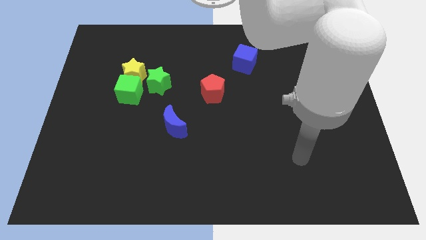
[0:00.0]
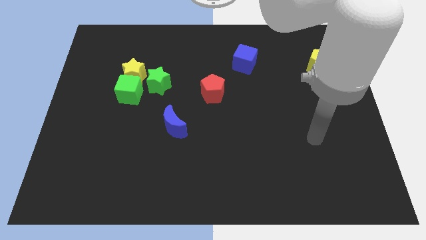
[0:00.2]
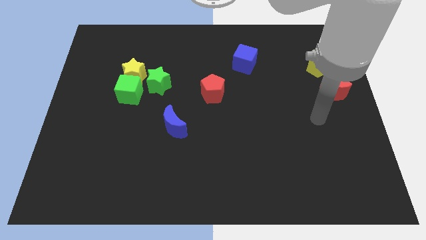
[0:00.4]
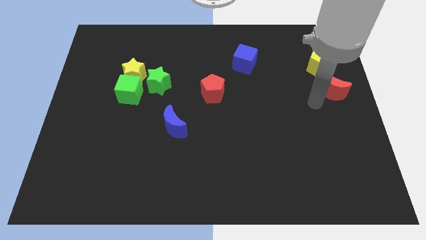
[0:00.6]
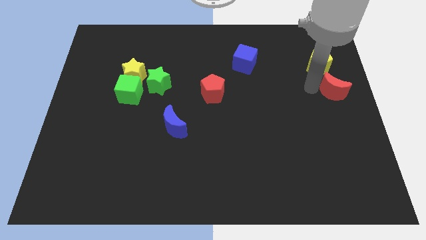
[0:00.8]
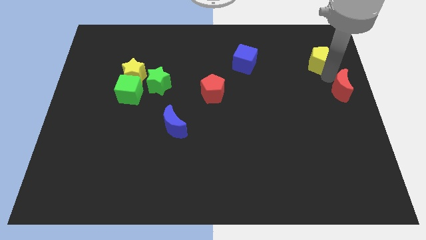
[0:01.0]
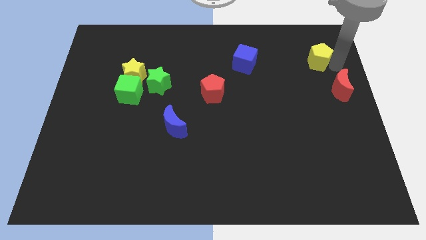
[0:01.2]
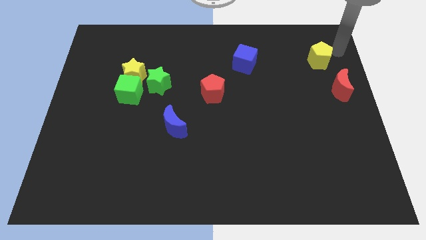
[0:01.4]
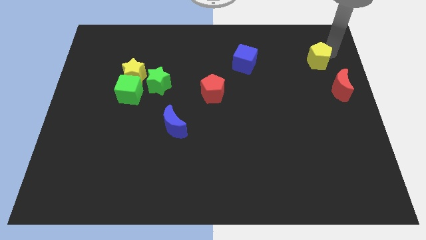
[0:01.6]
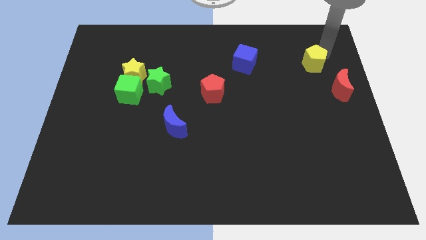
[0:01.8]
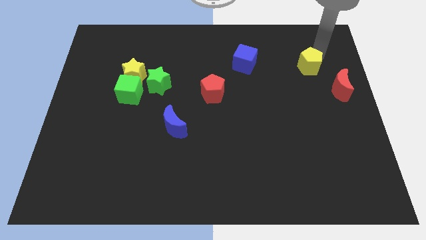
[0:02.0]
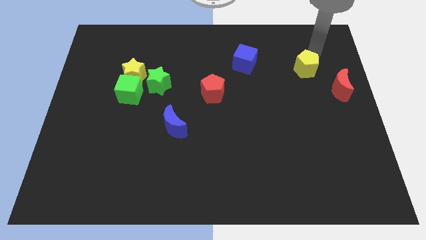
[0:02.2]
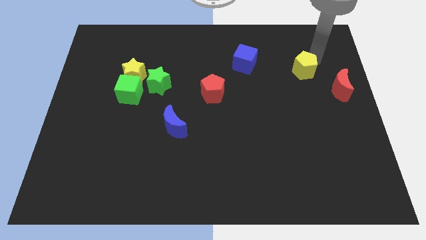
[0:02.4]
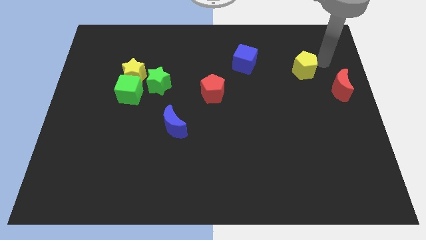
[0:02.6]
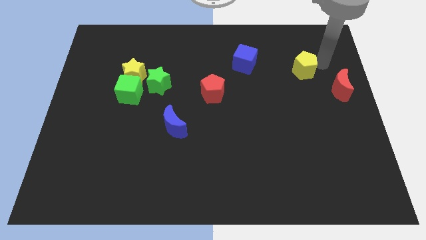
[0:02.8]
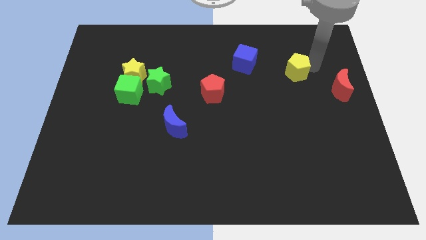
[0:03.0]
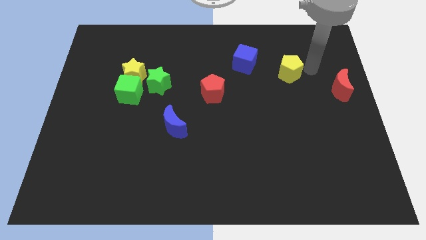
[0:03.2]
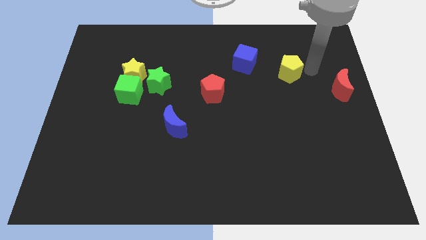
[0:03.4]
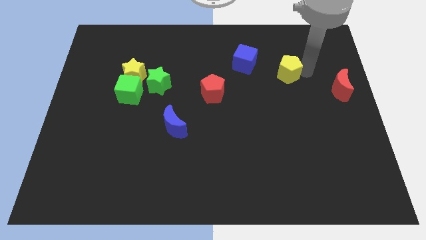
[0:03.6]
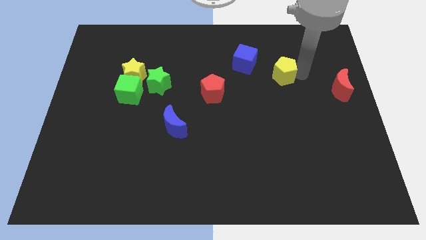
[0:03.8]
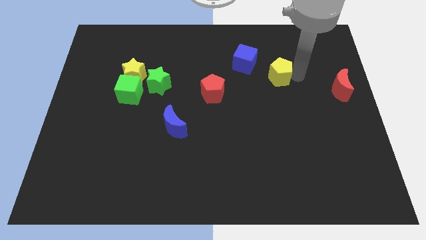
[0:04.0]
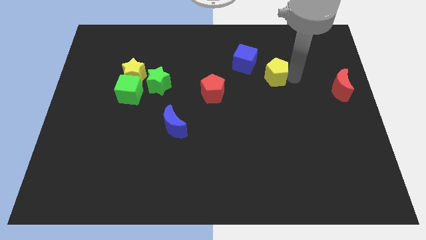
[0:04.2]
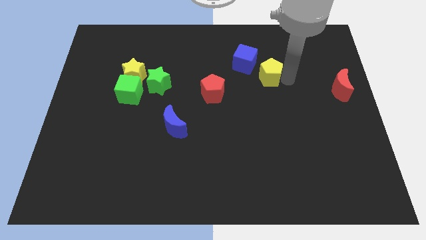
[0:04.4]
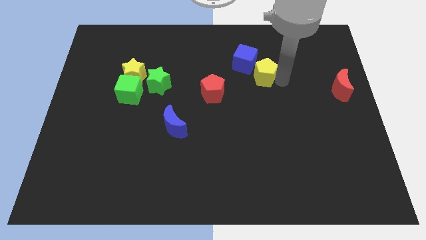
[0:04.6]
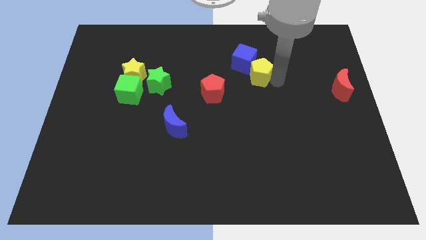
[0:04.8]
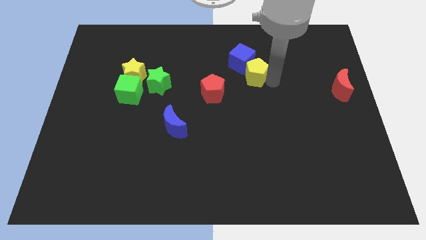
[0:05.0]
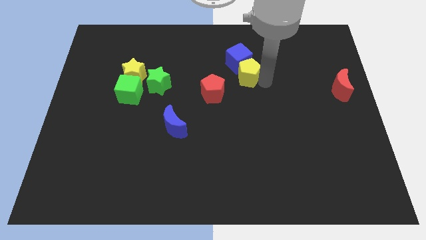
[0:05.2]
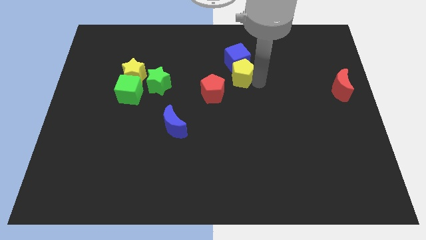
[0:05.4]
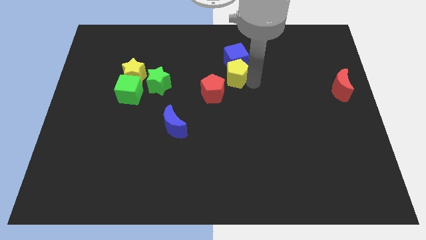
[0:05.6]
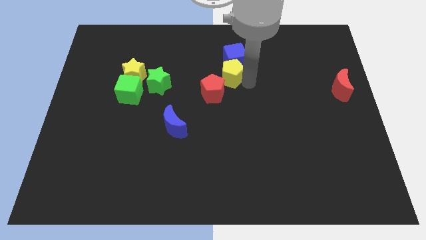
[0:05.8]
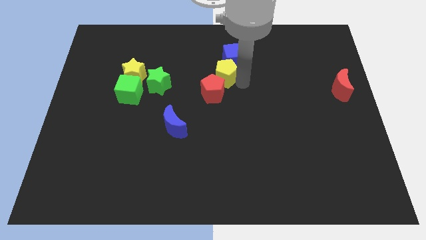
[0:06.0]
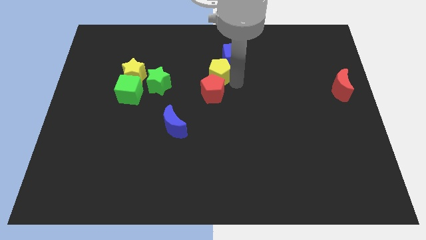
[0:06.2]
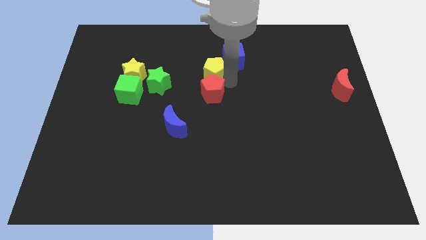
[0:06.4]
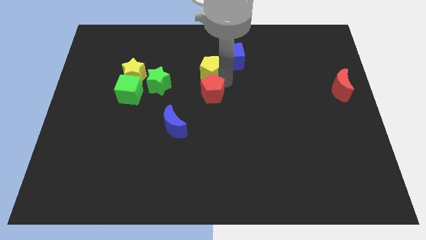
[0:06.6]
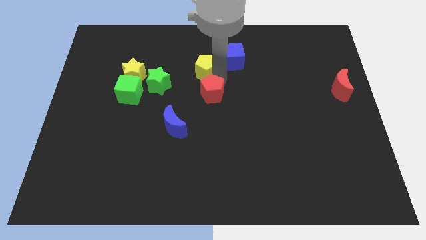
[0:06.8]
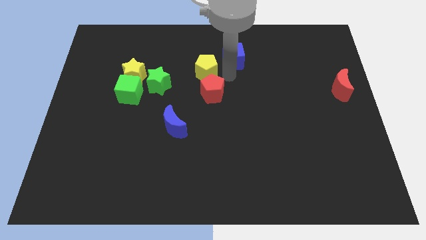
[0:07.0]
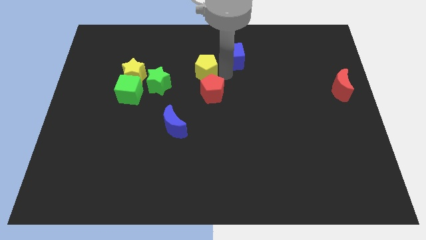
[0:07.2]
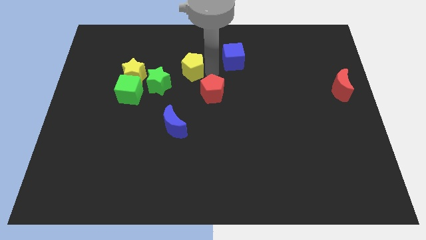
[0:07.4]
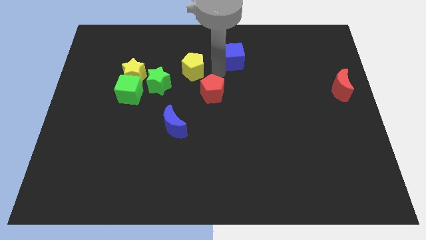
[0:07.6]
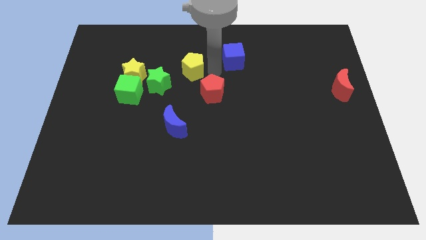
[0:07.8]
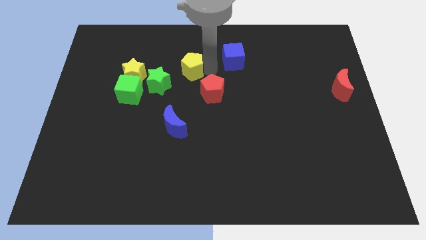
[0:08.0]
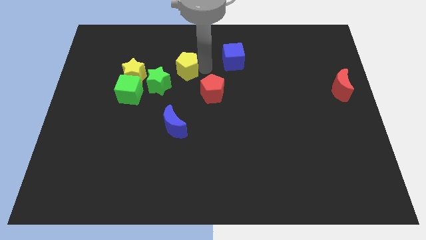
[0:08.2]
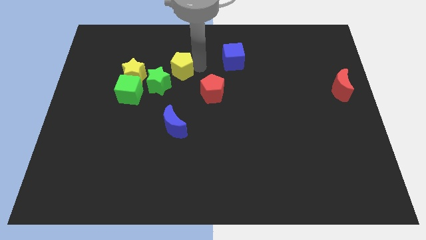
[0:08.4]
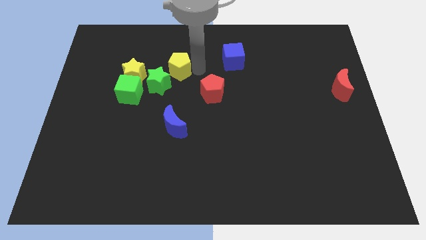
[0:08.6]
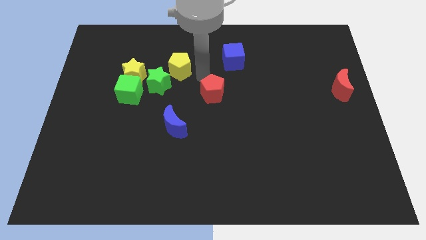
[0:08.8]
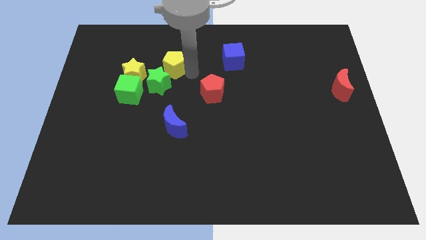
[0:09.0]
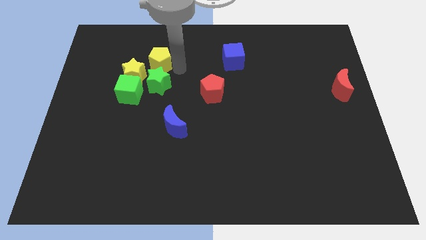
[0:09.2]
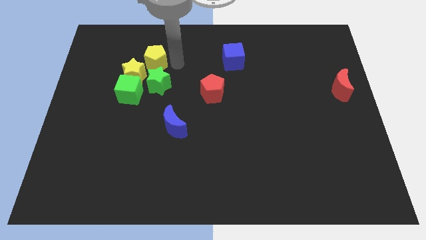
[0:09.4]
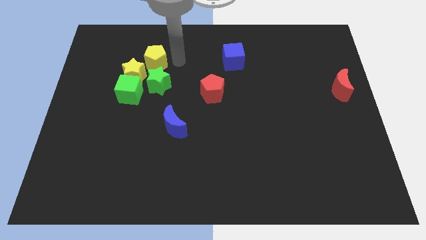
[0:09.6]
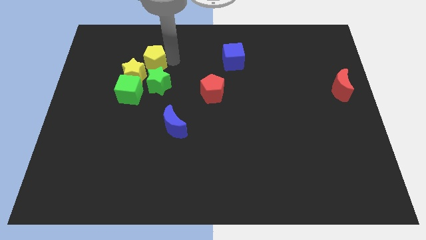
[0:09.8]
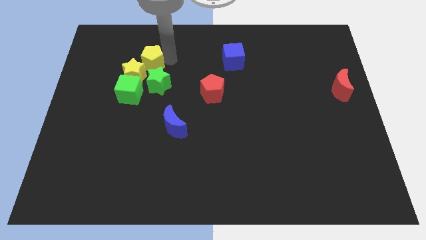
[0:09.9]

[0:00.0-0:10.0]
move the yellow pentagon above the green cube

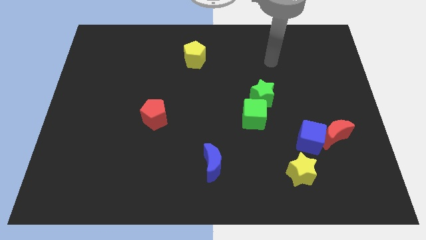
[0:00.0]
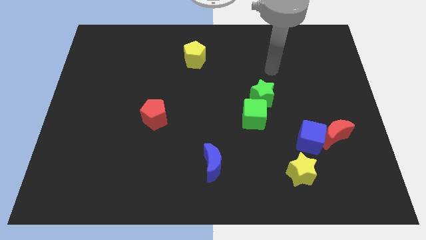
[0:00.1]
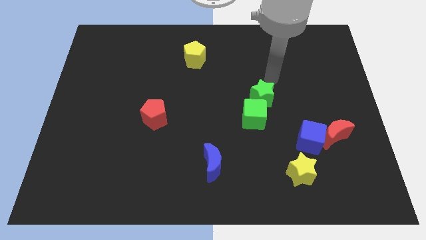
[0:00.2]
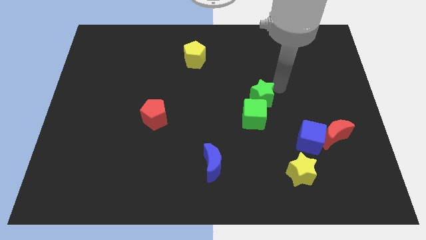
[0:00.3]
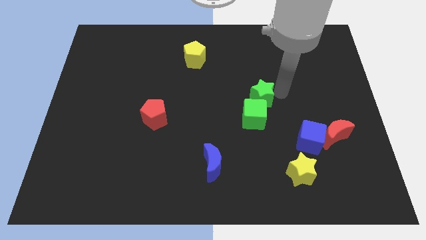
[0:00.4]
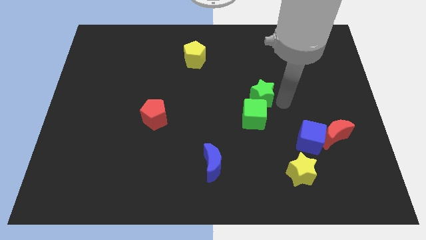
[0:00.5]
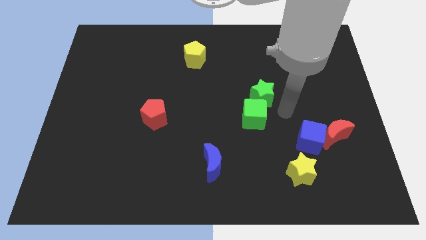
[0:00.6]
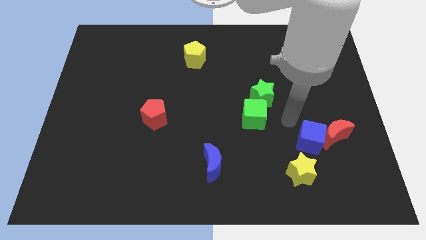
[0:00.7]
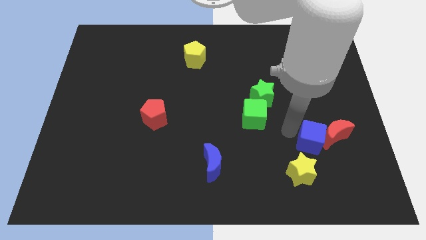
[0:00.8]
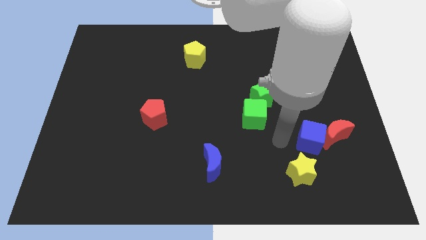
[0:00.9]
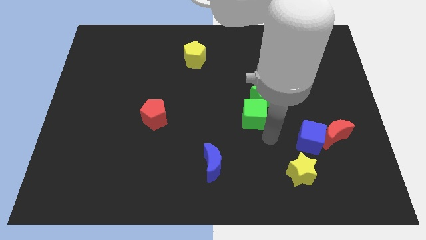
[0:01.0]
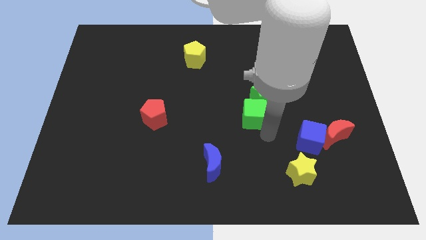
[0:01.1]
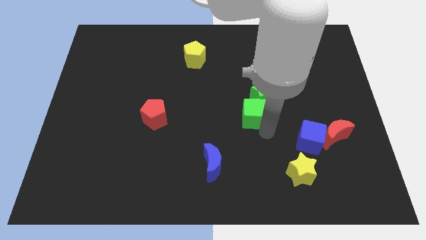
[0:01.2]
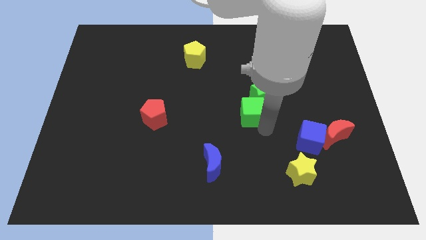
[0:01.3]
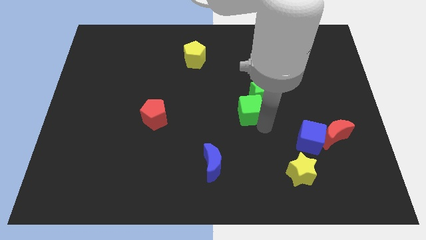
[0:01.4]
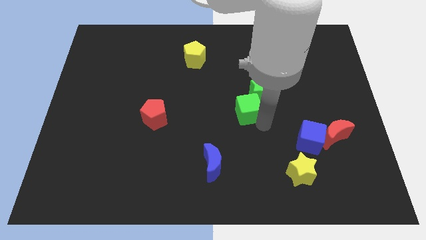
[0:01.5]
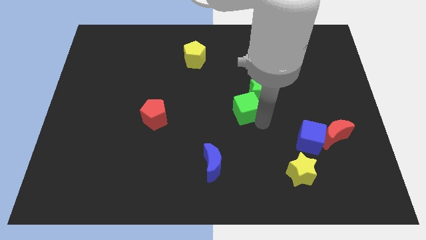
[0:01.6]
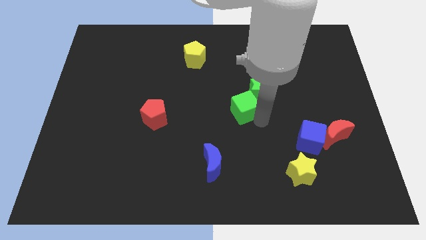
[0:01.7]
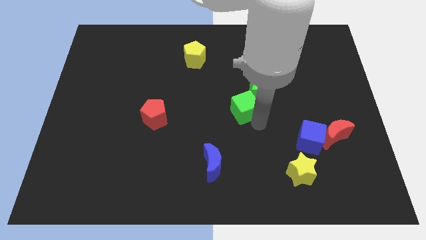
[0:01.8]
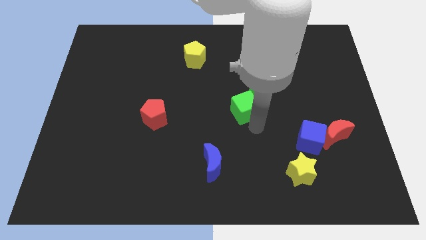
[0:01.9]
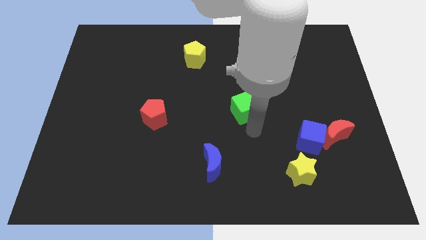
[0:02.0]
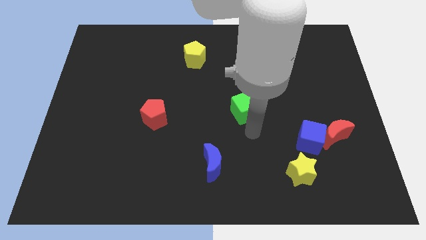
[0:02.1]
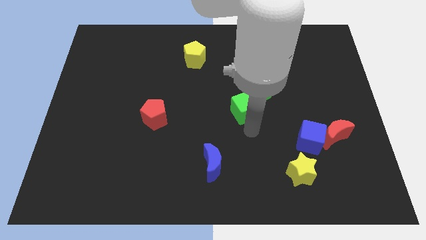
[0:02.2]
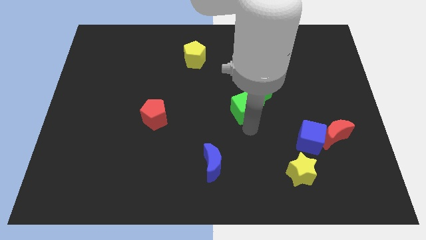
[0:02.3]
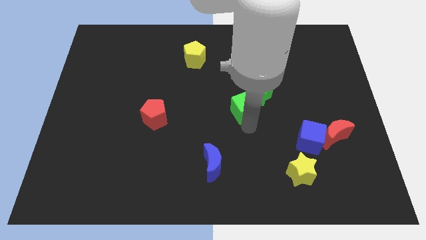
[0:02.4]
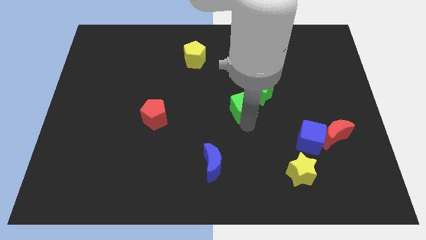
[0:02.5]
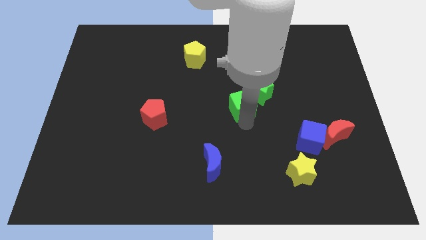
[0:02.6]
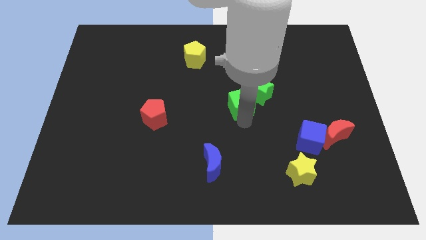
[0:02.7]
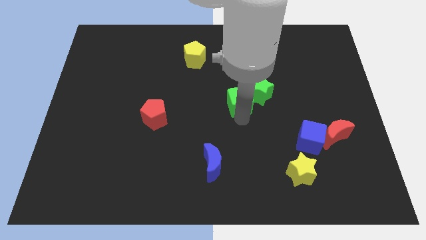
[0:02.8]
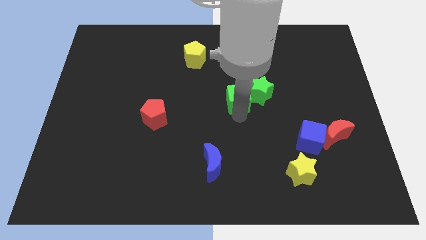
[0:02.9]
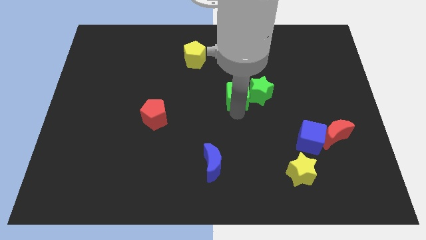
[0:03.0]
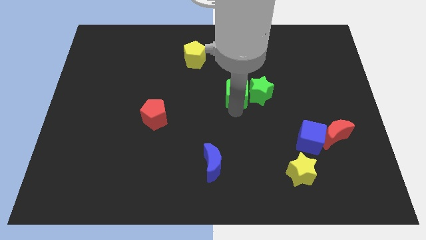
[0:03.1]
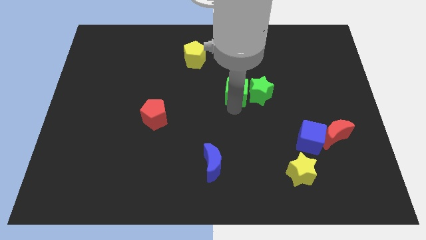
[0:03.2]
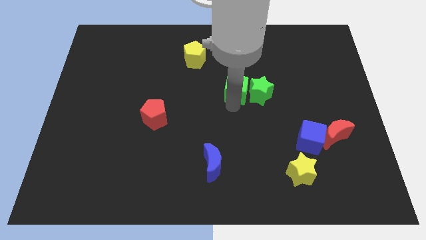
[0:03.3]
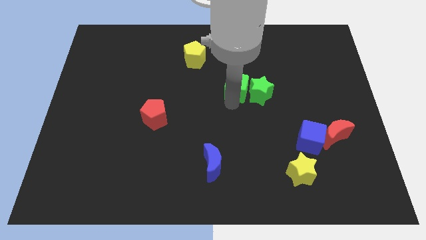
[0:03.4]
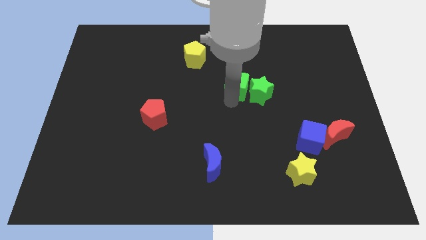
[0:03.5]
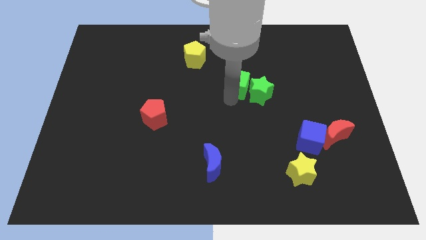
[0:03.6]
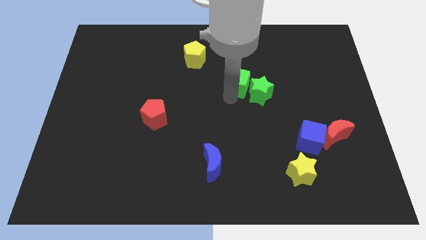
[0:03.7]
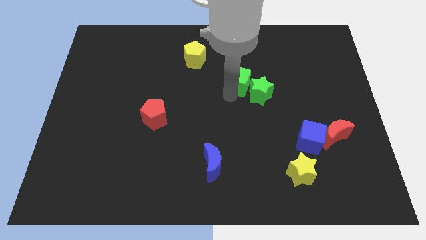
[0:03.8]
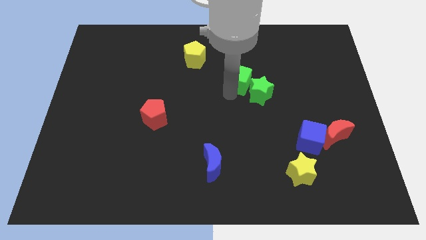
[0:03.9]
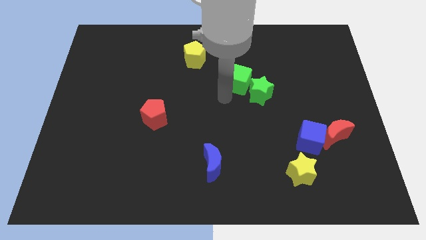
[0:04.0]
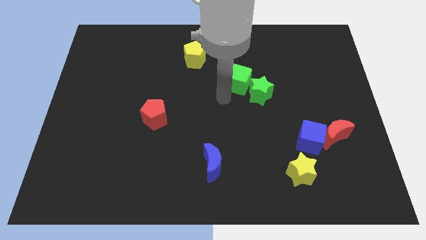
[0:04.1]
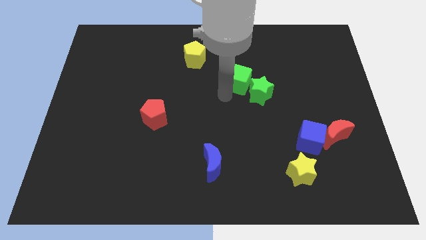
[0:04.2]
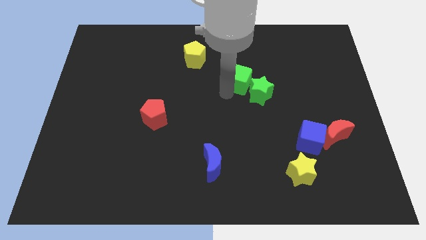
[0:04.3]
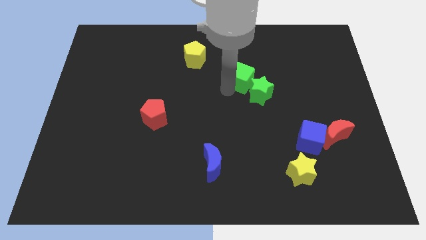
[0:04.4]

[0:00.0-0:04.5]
put the green cube to the top of the green star
